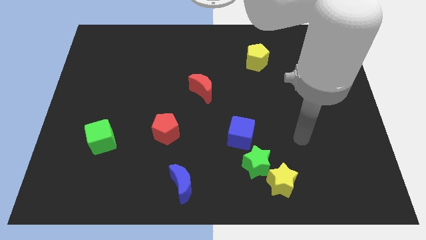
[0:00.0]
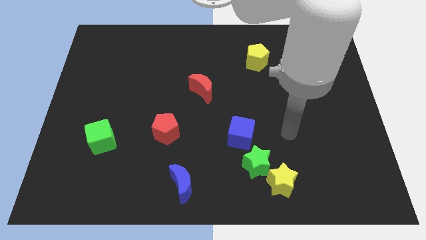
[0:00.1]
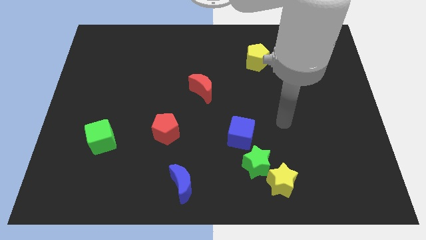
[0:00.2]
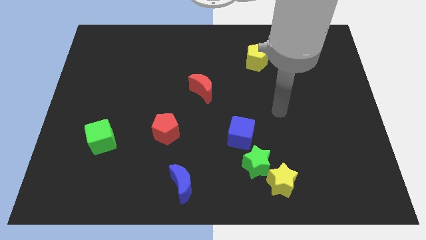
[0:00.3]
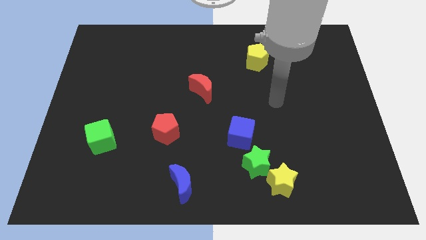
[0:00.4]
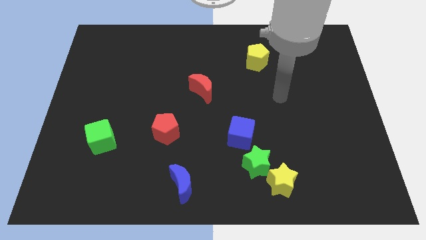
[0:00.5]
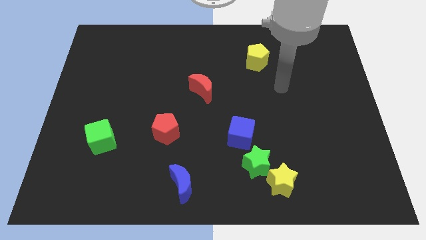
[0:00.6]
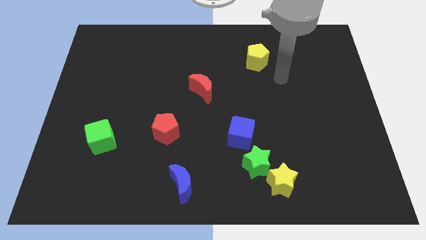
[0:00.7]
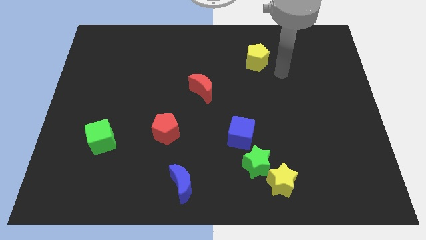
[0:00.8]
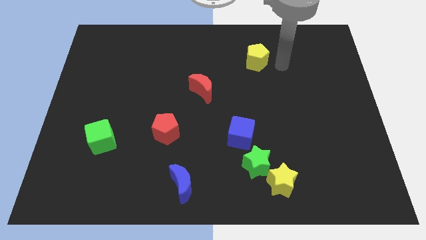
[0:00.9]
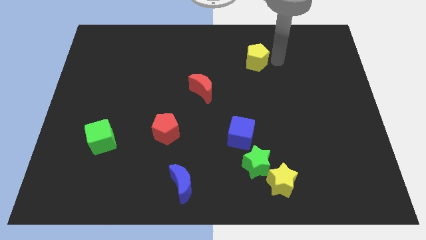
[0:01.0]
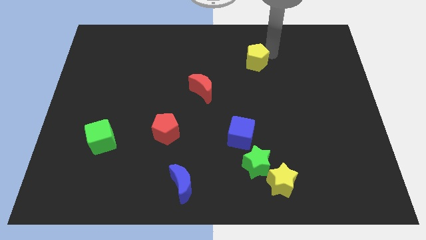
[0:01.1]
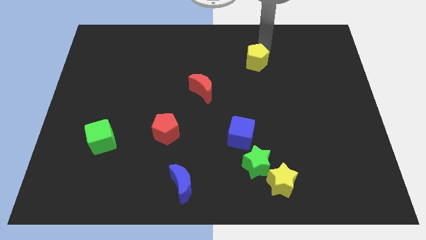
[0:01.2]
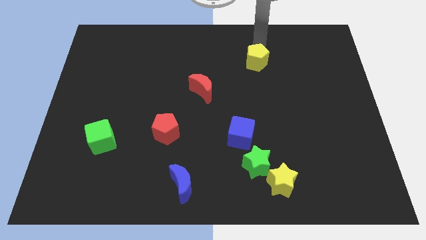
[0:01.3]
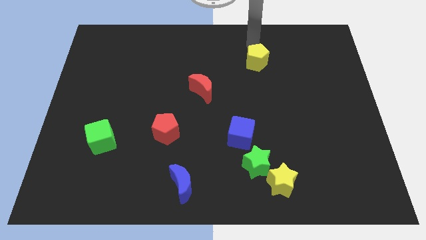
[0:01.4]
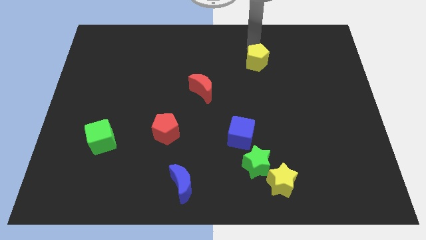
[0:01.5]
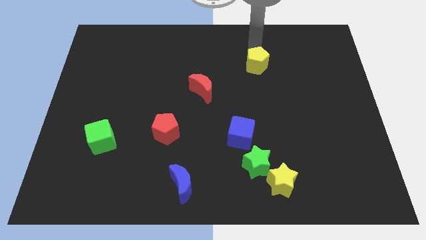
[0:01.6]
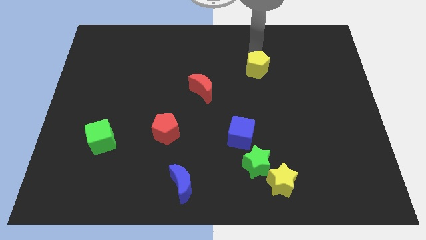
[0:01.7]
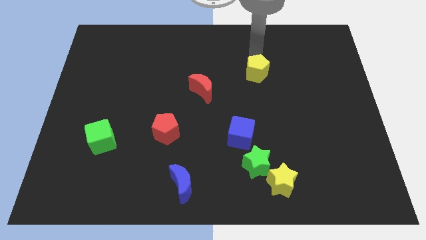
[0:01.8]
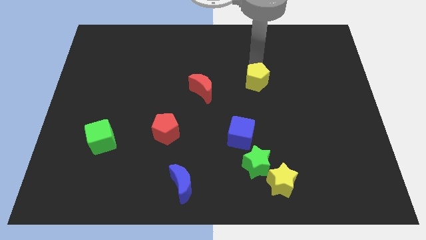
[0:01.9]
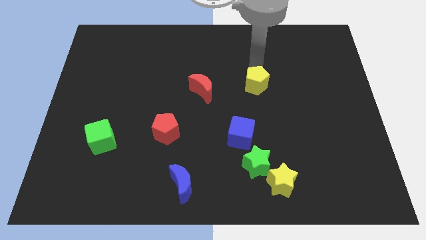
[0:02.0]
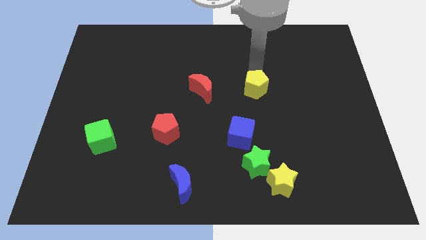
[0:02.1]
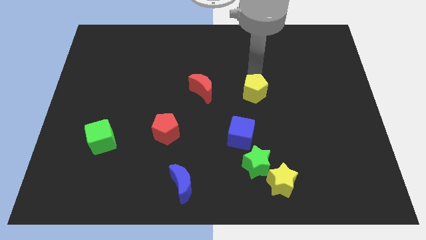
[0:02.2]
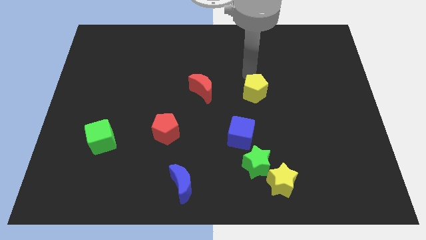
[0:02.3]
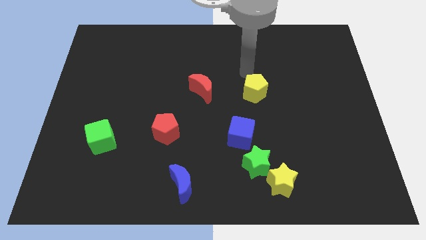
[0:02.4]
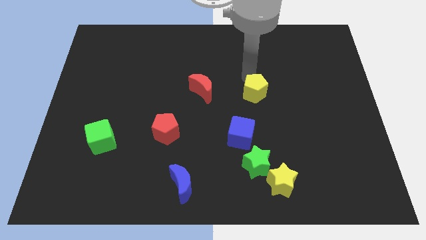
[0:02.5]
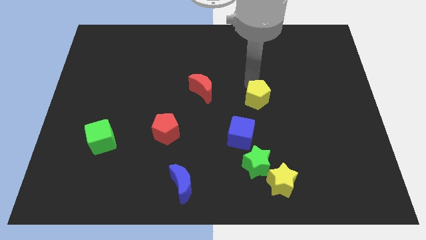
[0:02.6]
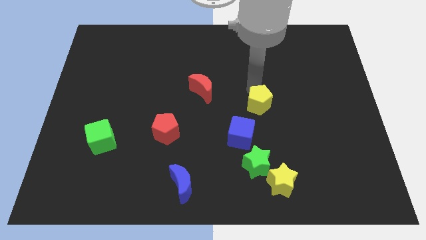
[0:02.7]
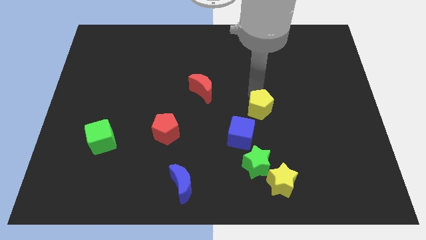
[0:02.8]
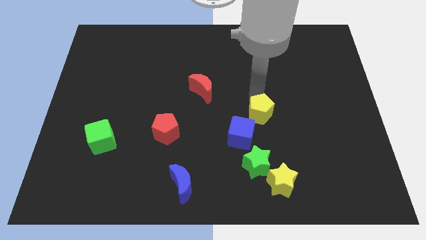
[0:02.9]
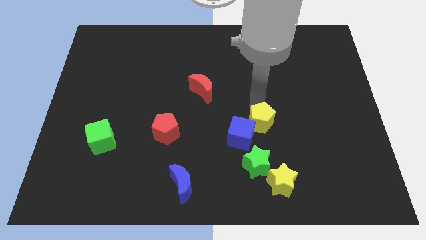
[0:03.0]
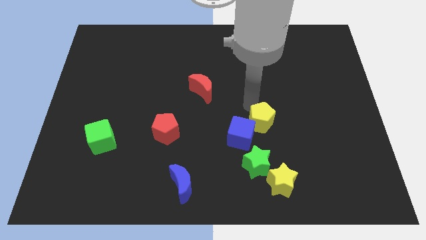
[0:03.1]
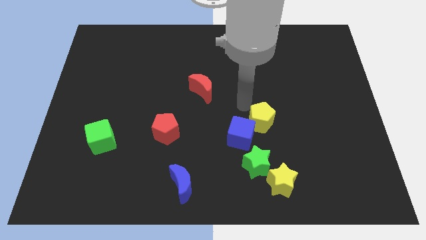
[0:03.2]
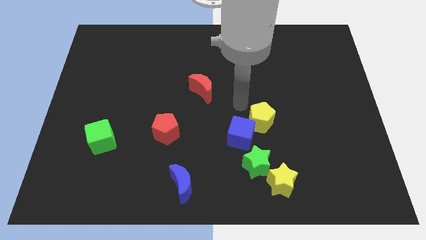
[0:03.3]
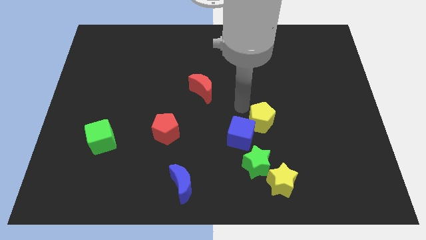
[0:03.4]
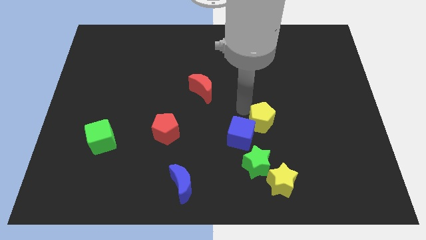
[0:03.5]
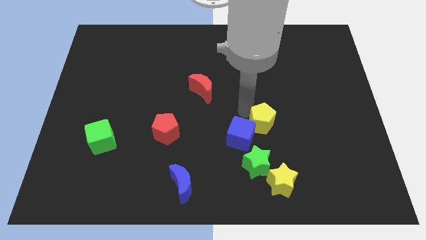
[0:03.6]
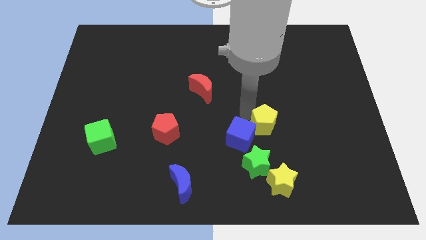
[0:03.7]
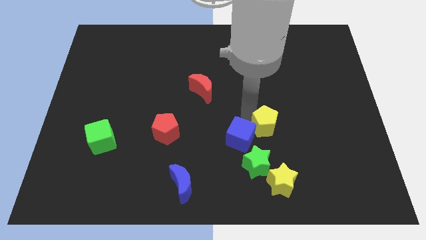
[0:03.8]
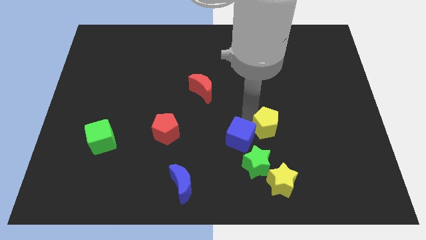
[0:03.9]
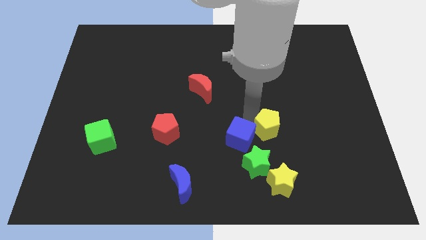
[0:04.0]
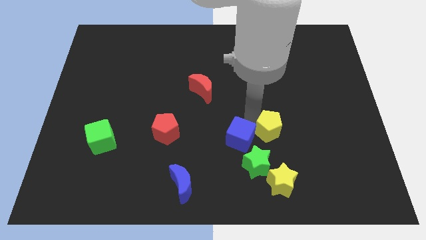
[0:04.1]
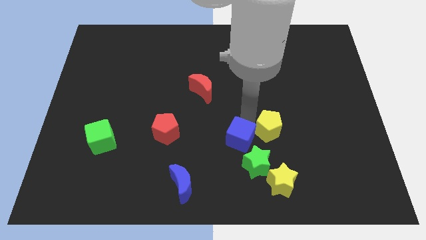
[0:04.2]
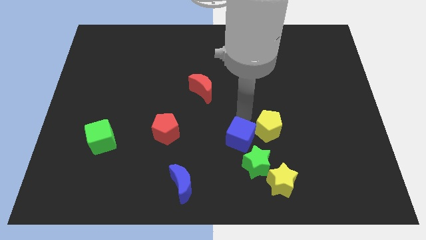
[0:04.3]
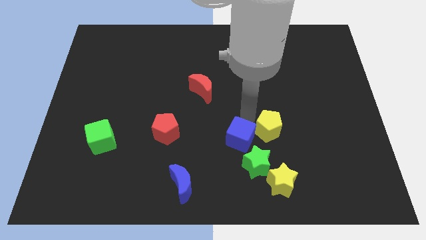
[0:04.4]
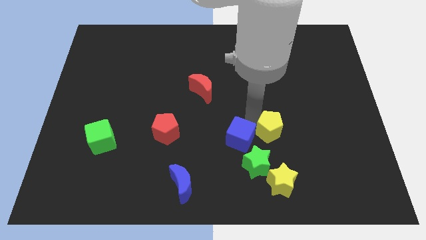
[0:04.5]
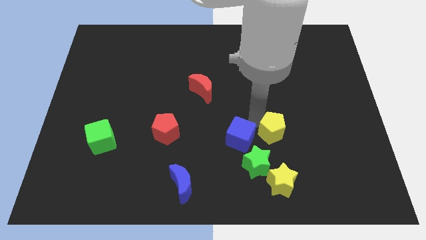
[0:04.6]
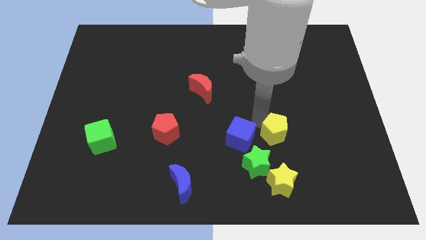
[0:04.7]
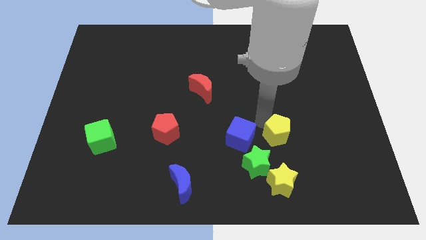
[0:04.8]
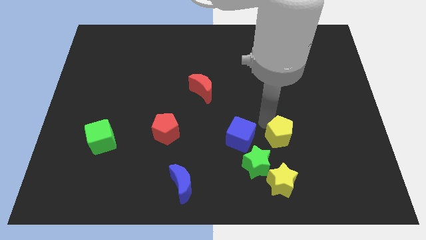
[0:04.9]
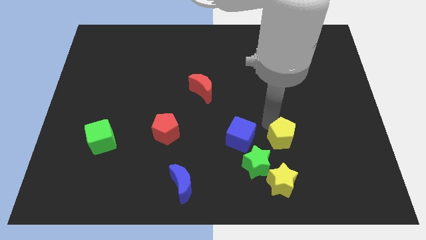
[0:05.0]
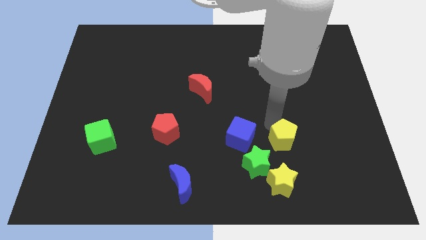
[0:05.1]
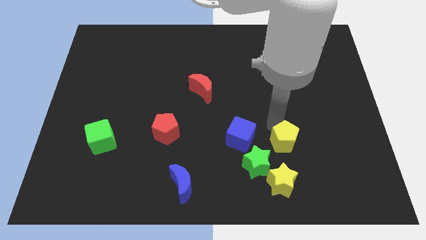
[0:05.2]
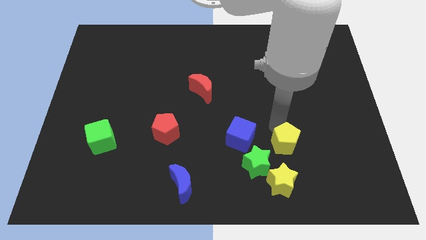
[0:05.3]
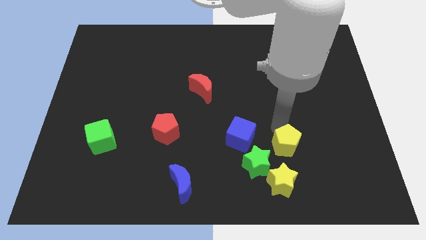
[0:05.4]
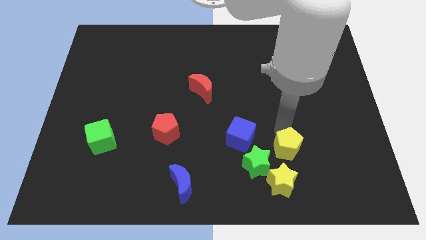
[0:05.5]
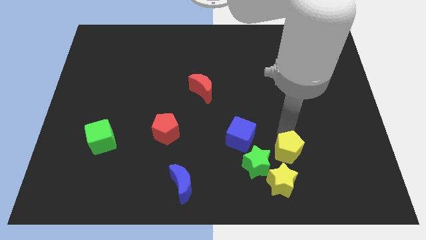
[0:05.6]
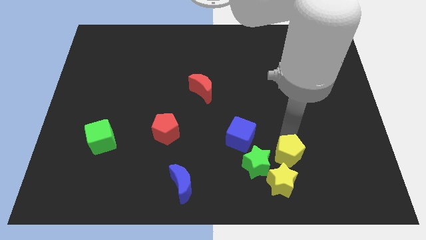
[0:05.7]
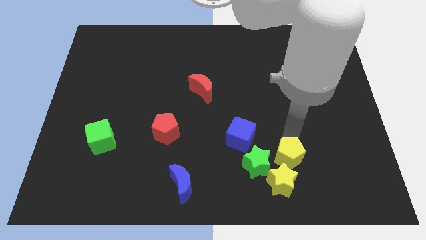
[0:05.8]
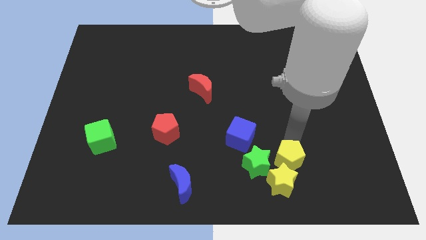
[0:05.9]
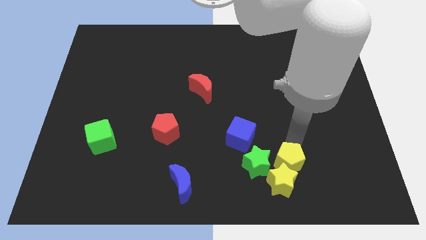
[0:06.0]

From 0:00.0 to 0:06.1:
move the yellow pentagon next to the yellow star

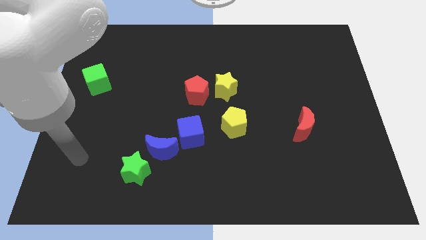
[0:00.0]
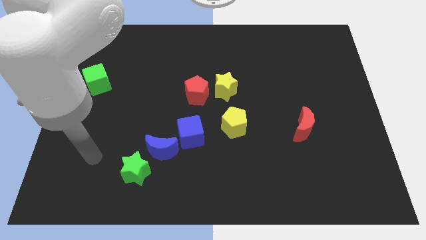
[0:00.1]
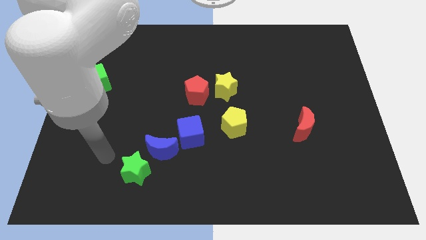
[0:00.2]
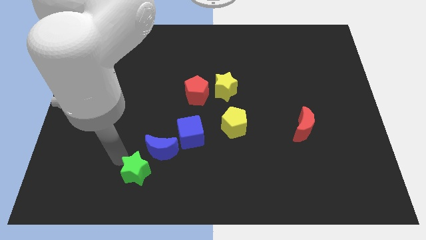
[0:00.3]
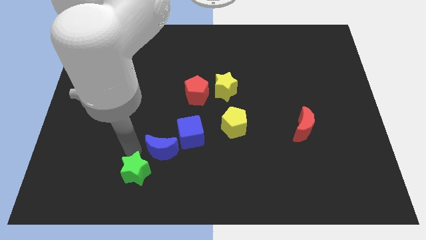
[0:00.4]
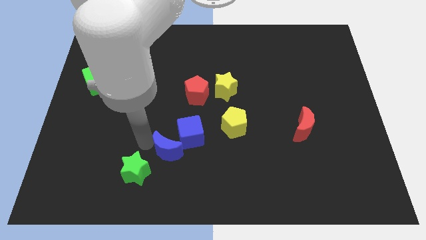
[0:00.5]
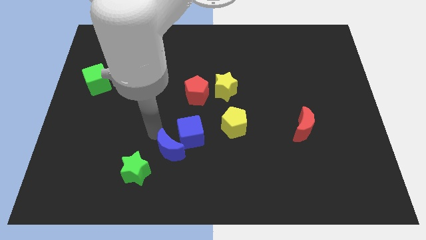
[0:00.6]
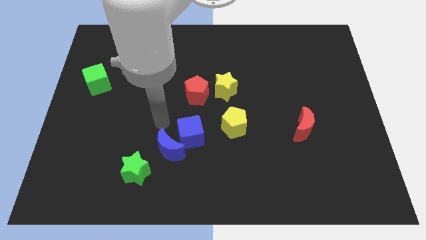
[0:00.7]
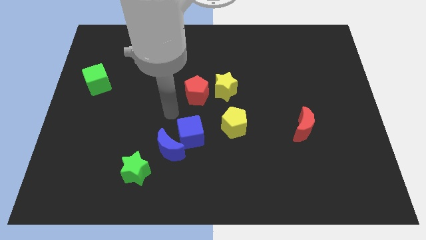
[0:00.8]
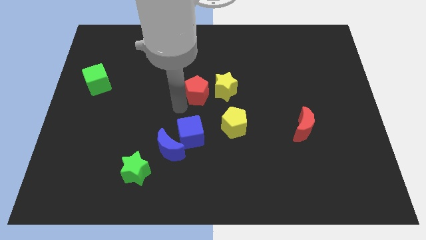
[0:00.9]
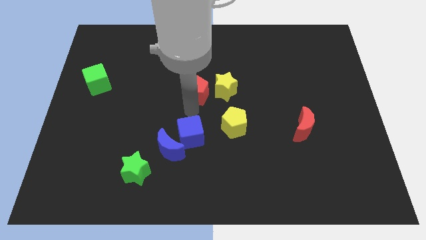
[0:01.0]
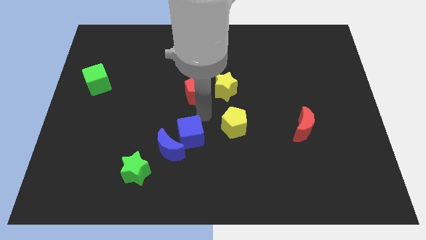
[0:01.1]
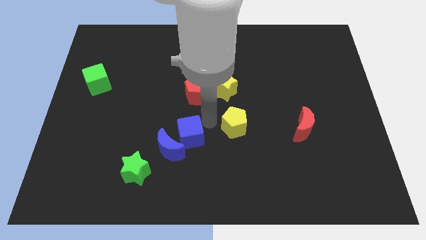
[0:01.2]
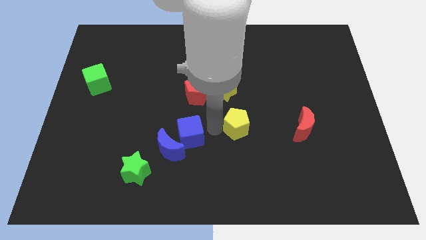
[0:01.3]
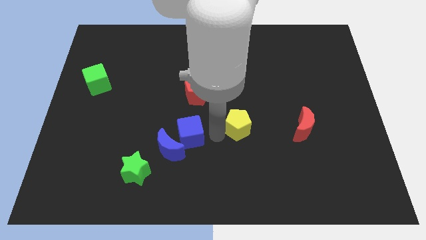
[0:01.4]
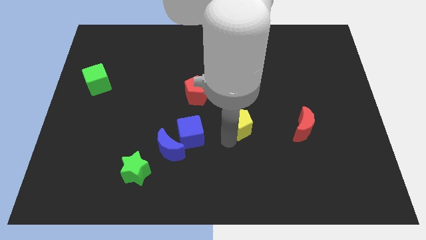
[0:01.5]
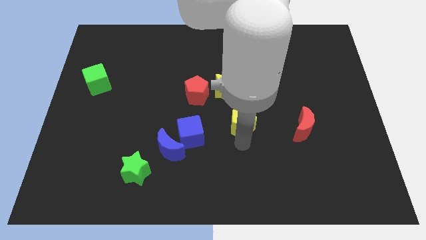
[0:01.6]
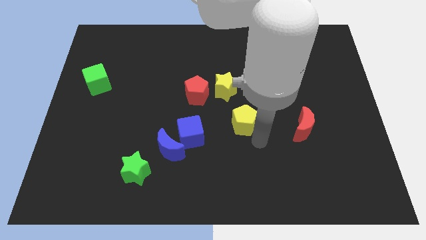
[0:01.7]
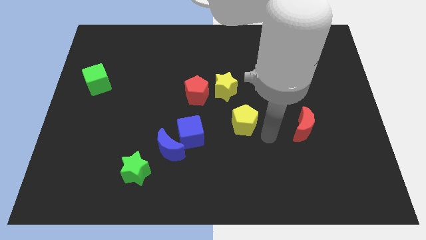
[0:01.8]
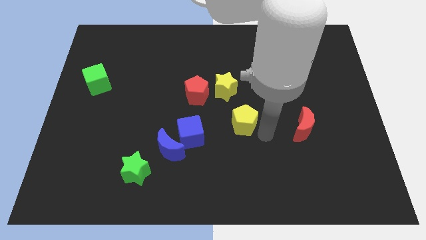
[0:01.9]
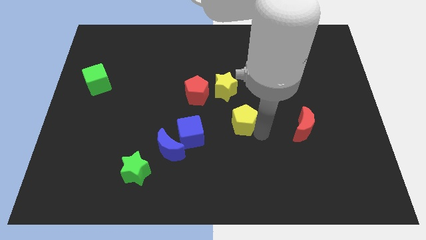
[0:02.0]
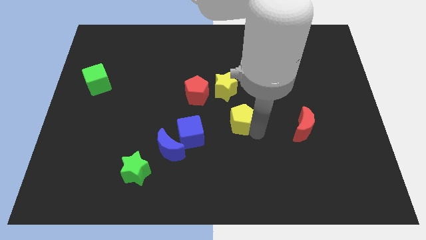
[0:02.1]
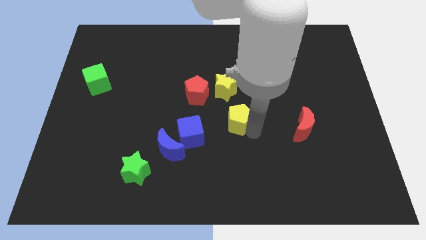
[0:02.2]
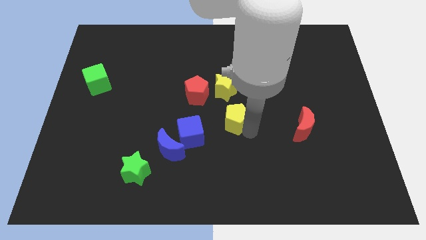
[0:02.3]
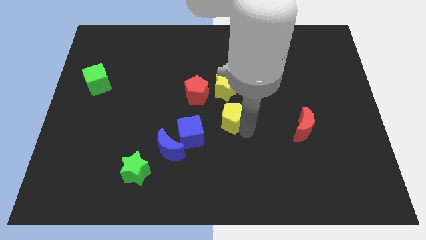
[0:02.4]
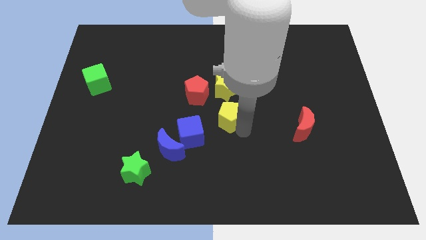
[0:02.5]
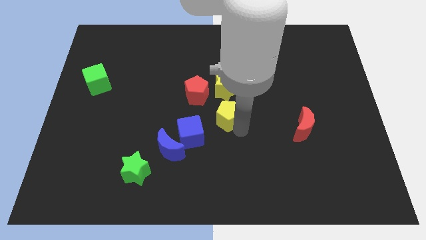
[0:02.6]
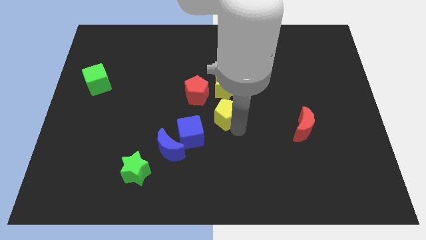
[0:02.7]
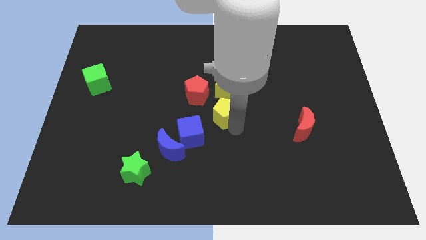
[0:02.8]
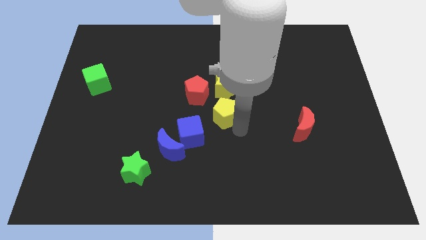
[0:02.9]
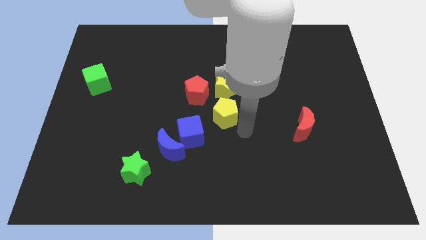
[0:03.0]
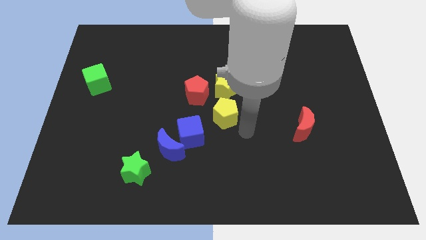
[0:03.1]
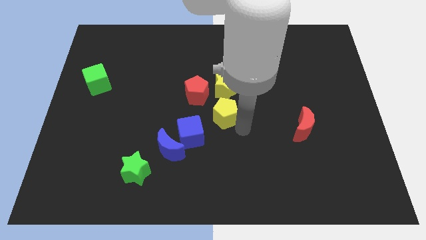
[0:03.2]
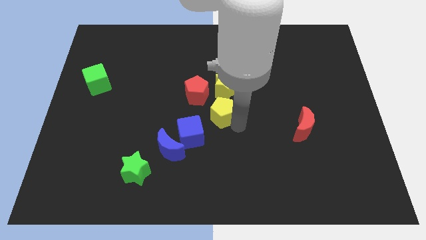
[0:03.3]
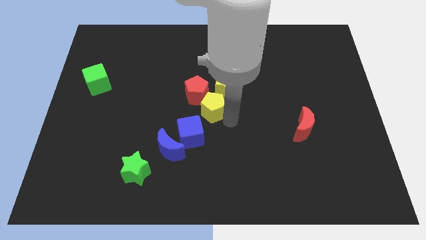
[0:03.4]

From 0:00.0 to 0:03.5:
push the yellow pentagon next to the red pentagon
